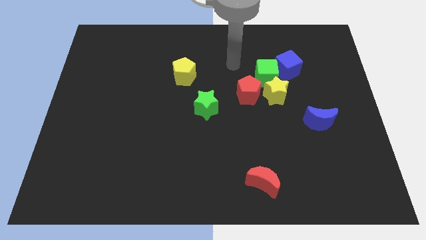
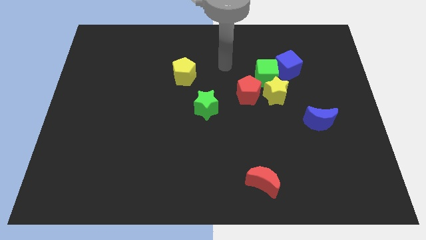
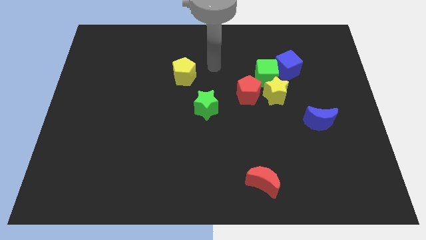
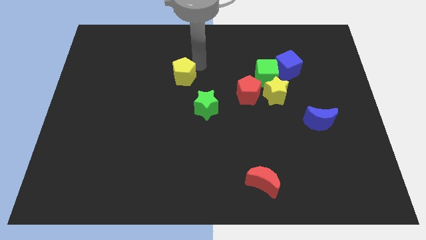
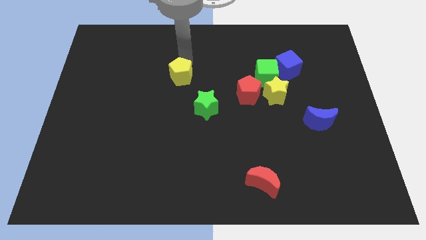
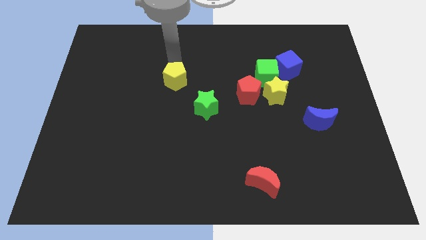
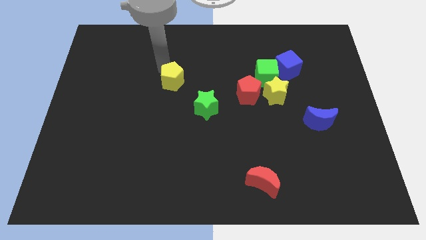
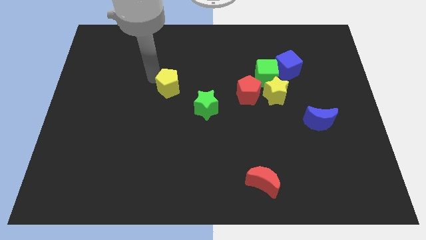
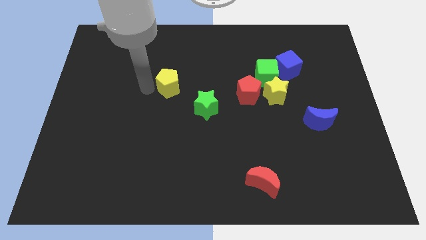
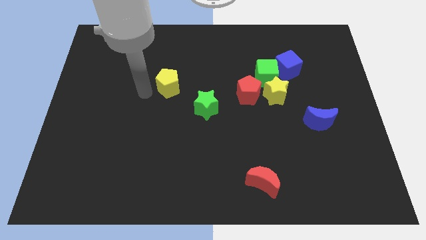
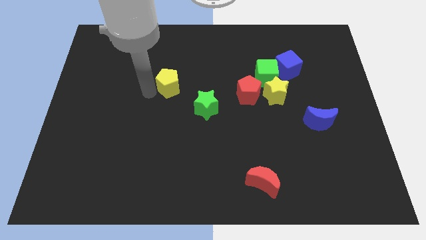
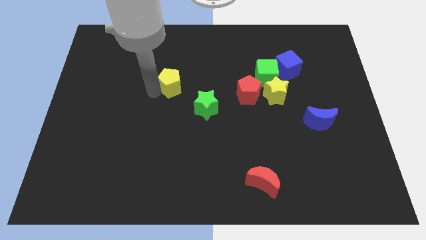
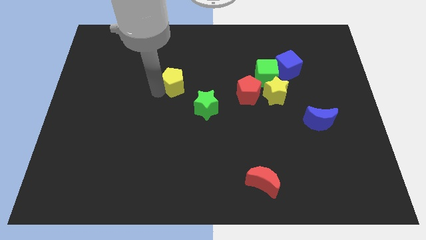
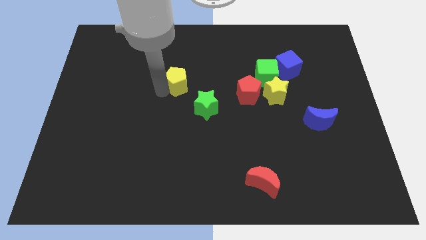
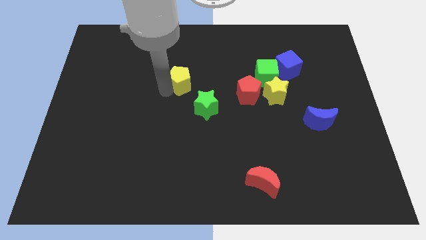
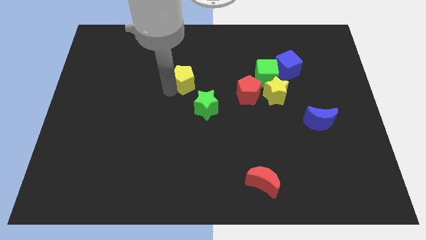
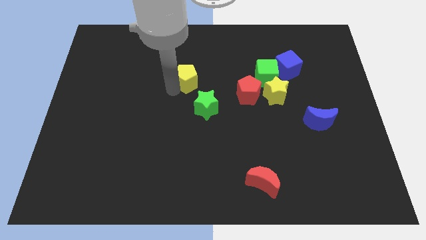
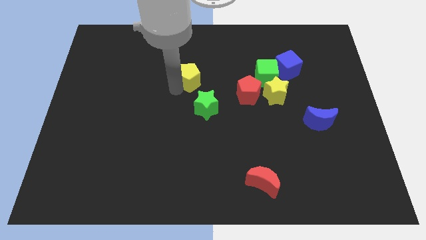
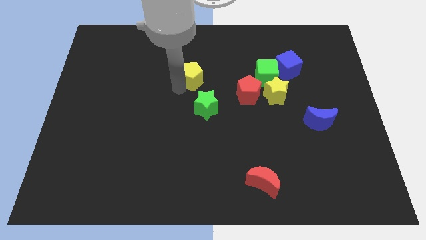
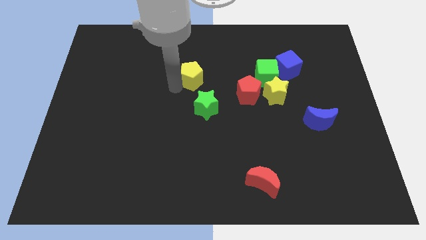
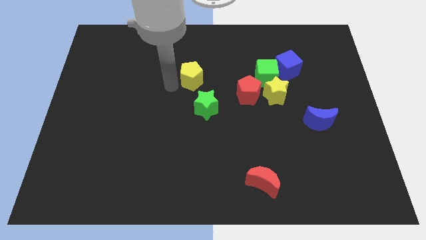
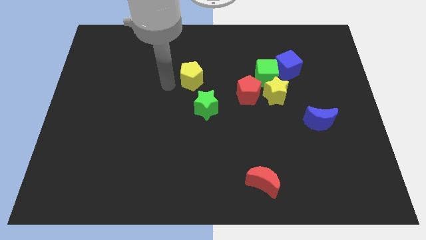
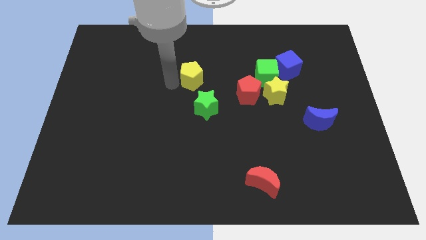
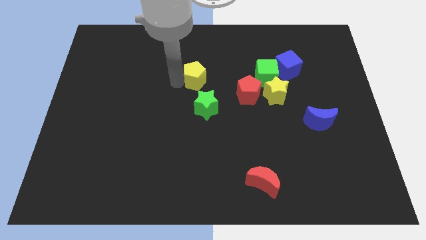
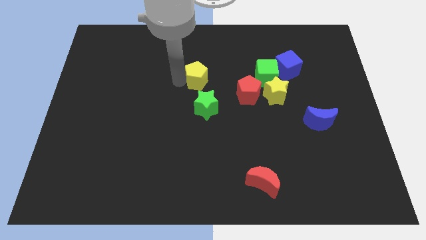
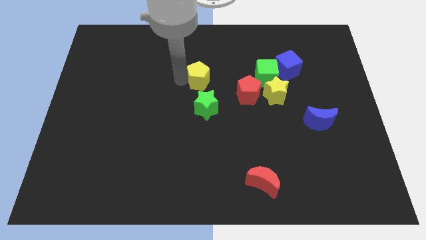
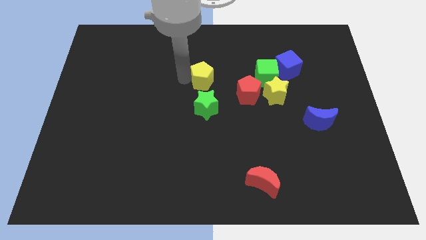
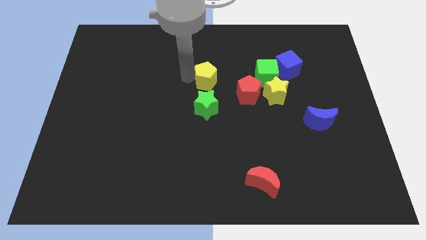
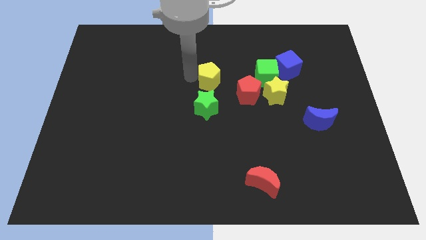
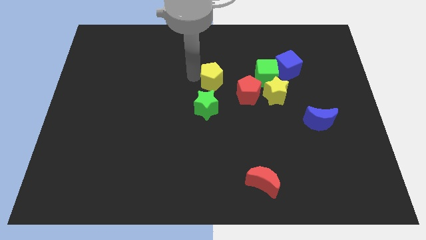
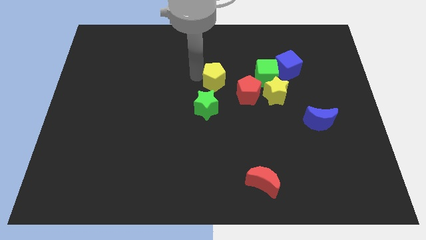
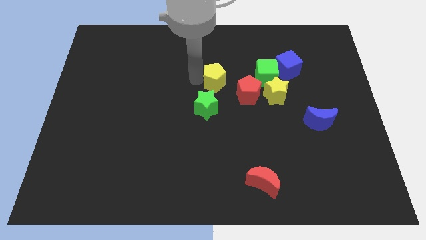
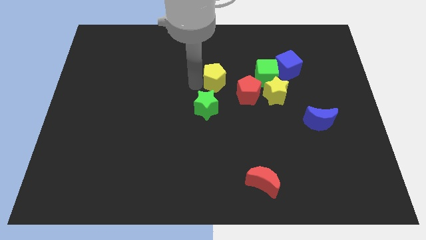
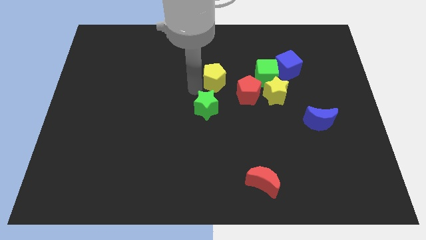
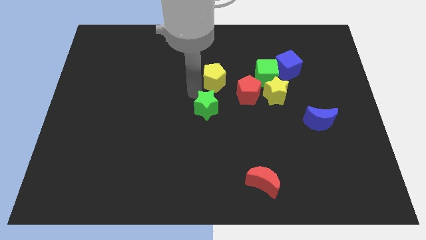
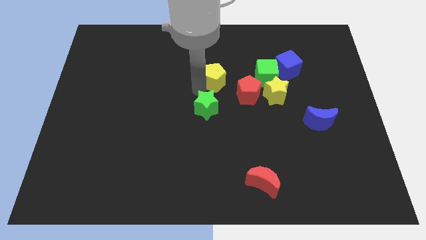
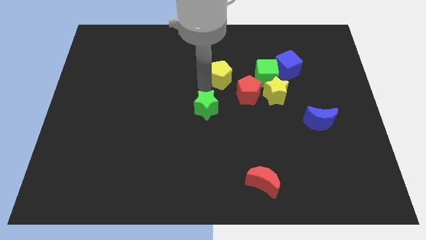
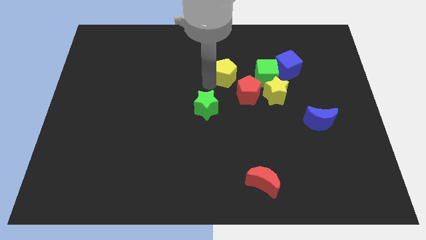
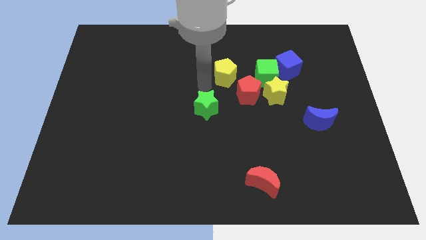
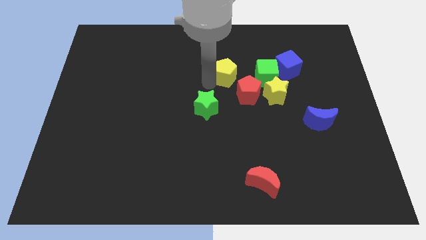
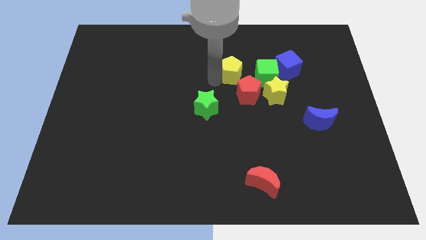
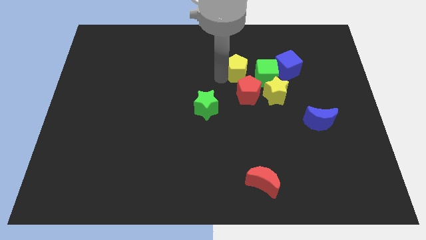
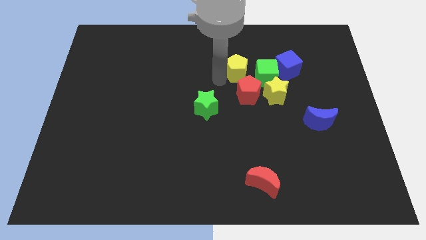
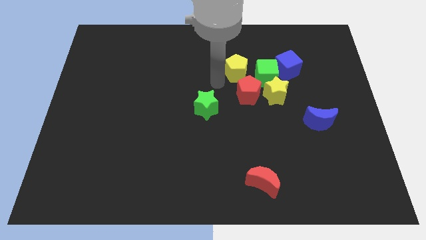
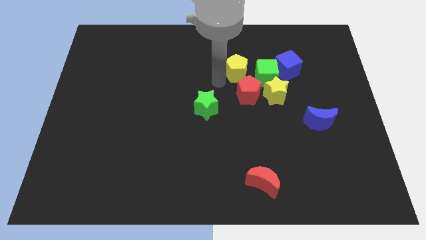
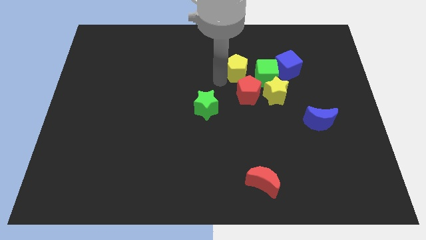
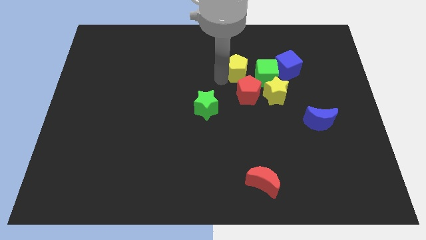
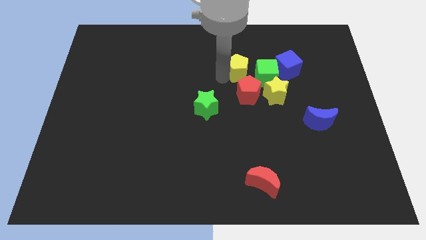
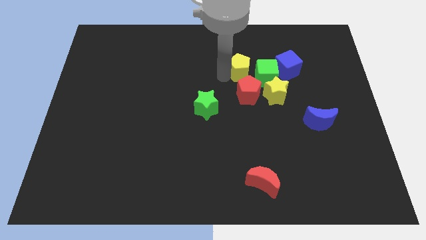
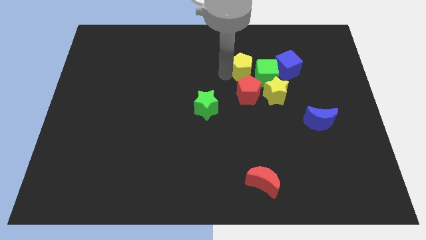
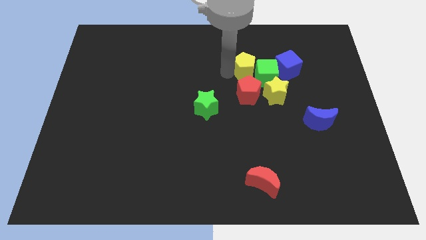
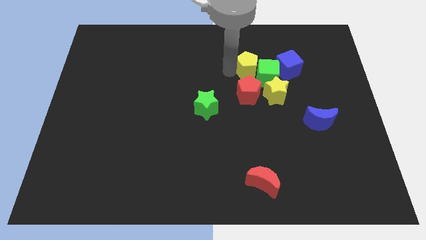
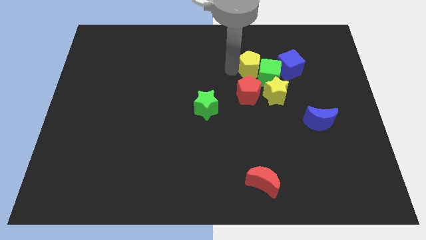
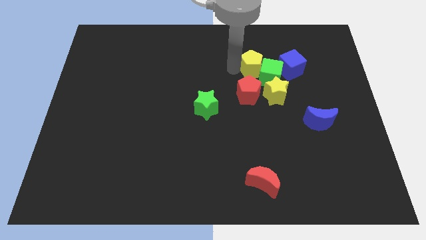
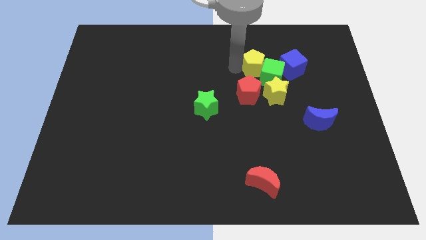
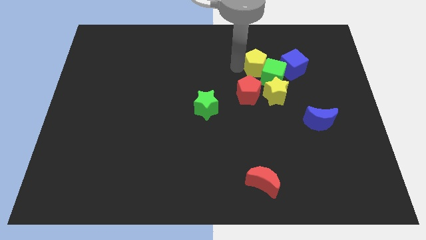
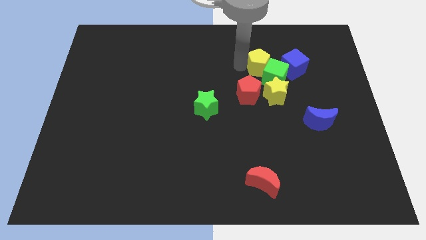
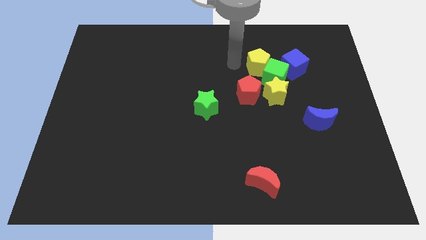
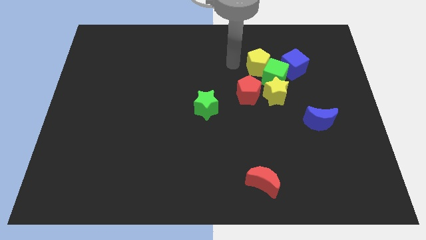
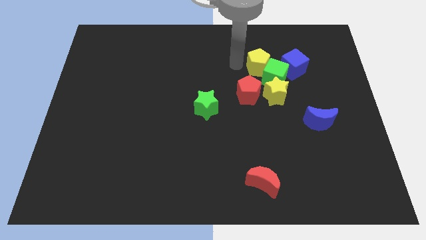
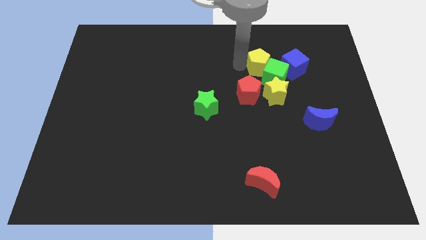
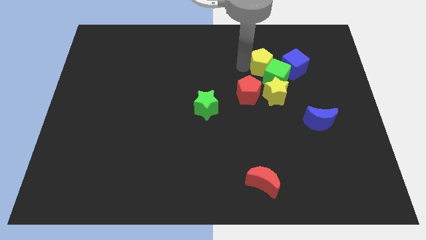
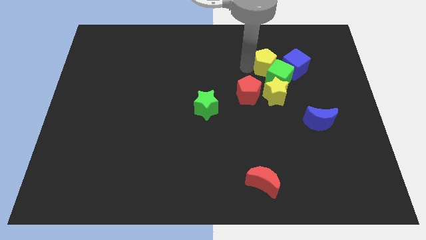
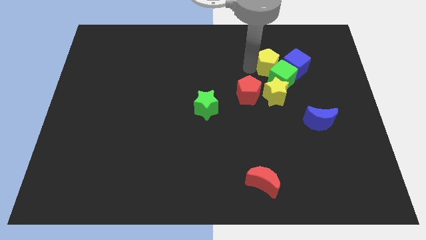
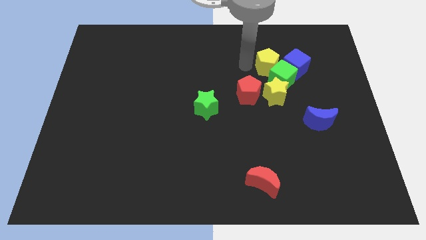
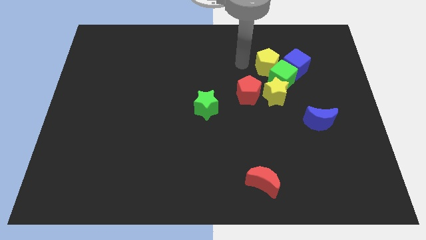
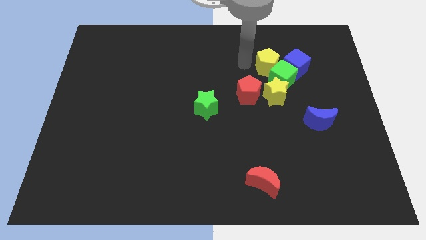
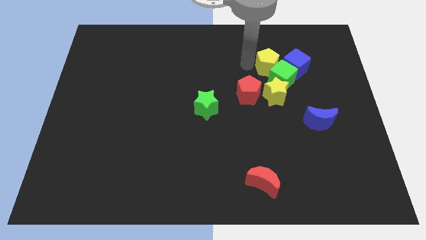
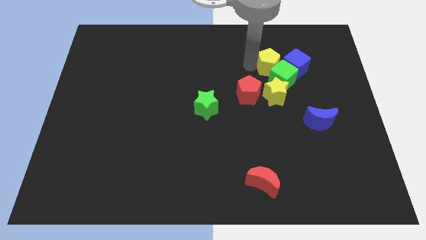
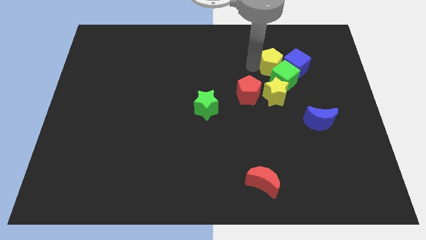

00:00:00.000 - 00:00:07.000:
move the yellow pentagon to the blue cube
